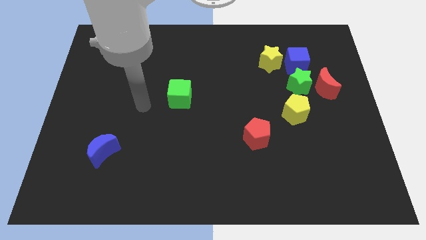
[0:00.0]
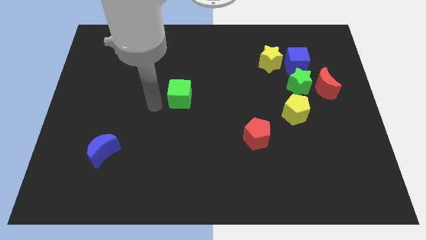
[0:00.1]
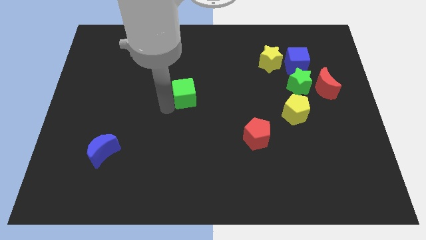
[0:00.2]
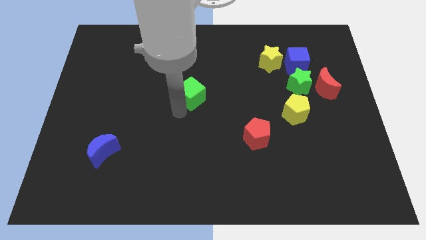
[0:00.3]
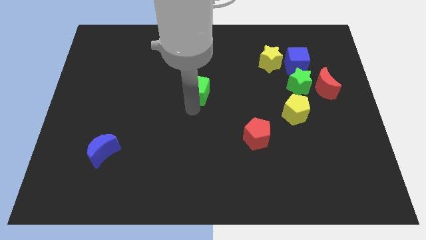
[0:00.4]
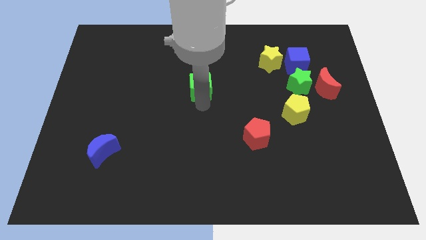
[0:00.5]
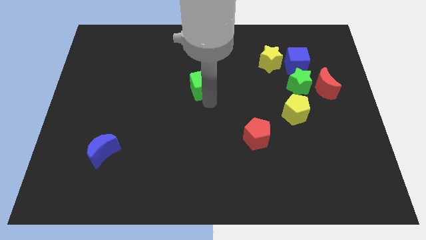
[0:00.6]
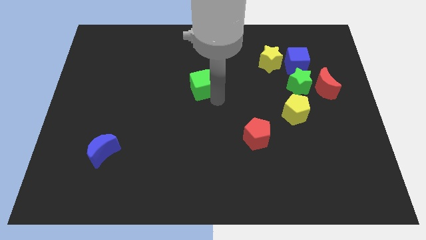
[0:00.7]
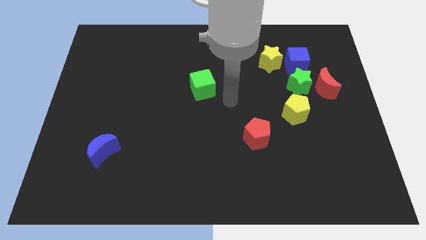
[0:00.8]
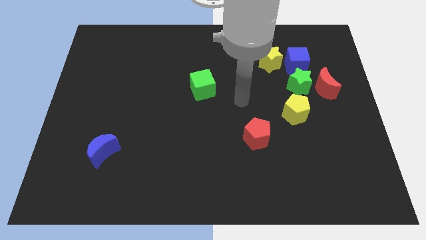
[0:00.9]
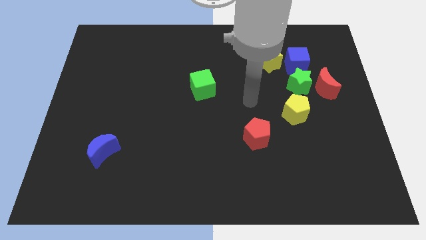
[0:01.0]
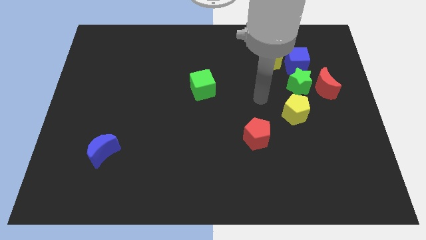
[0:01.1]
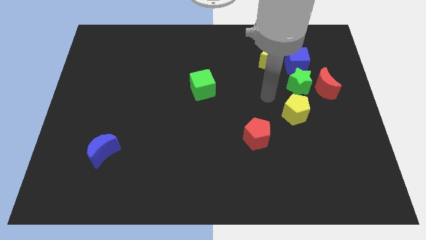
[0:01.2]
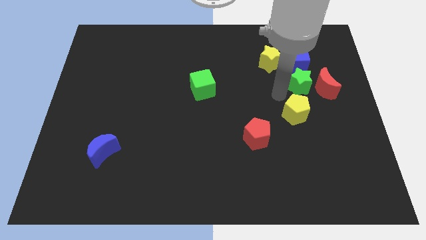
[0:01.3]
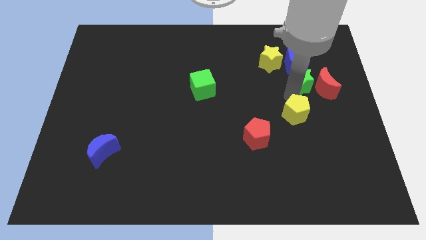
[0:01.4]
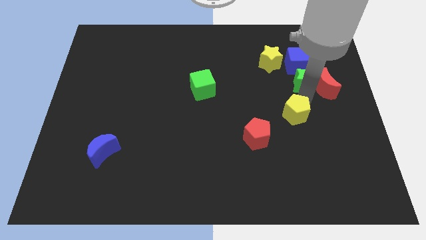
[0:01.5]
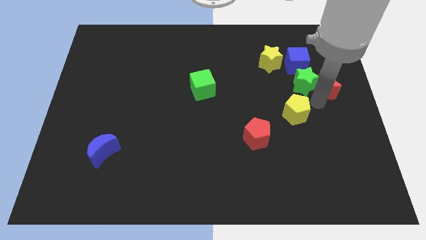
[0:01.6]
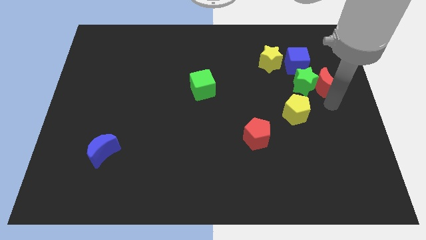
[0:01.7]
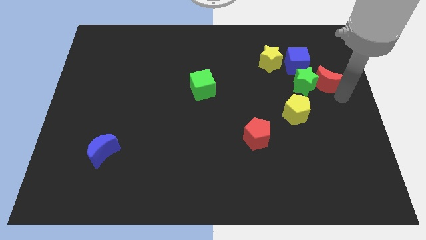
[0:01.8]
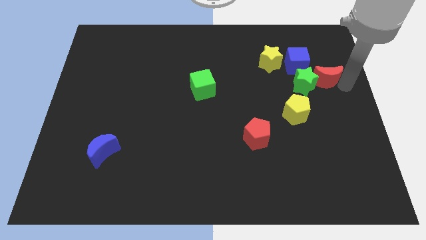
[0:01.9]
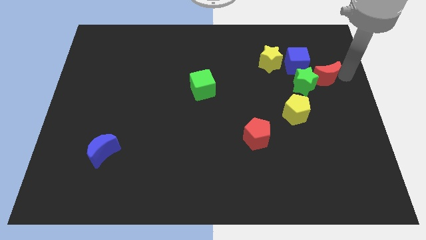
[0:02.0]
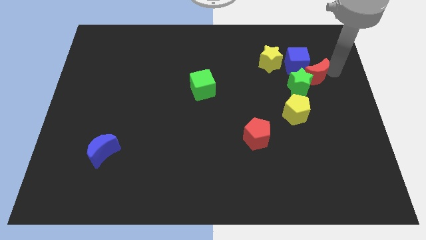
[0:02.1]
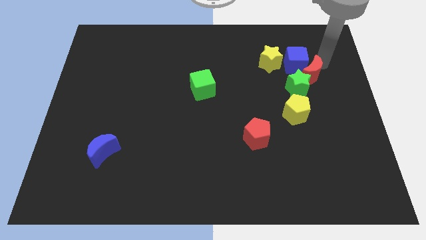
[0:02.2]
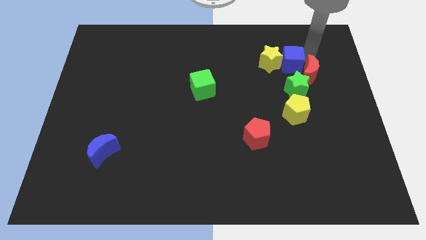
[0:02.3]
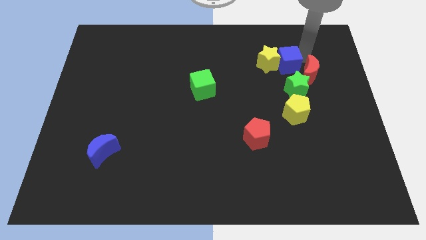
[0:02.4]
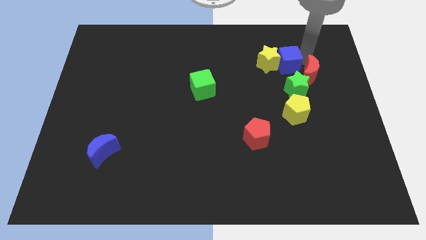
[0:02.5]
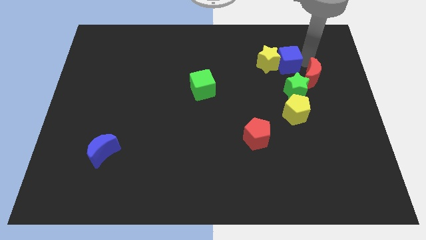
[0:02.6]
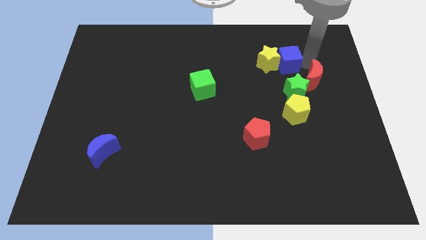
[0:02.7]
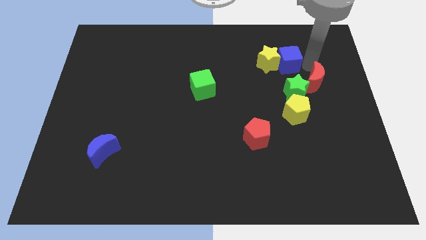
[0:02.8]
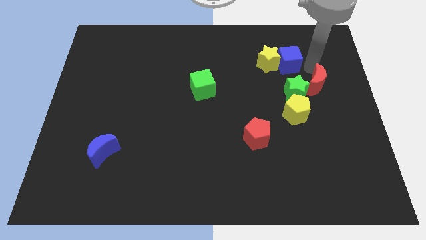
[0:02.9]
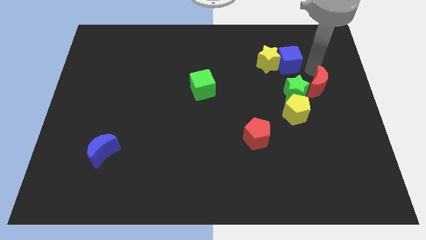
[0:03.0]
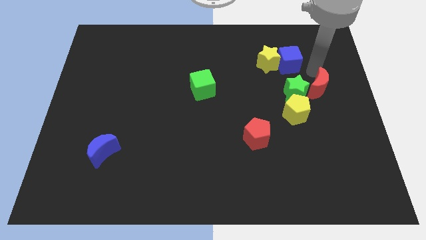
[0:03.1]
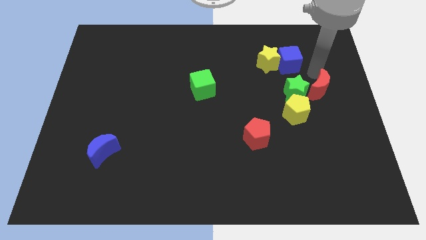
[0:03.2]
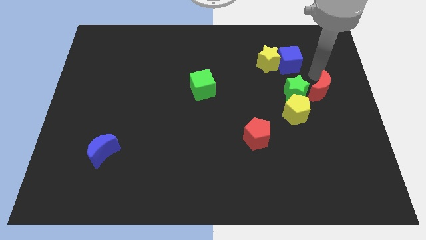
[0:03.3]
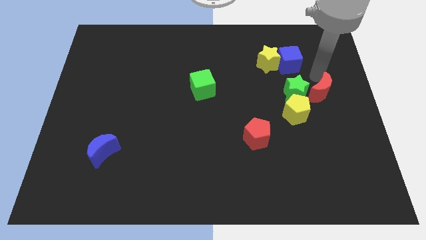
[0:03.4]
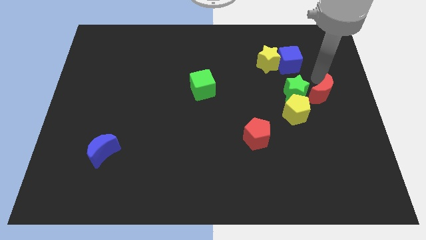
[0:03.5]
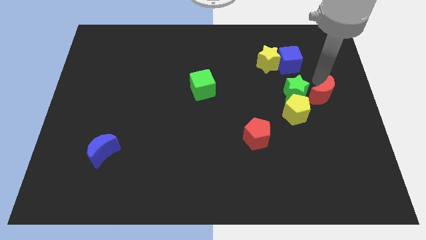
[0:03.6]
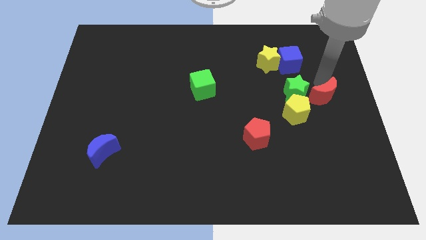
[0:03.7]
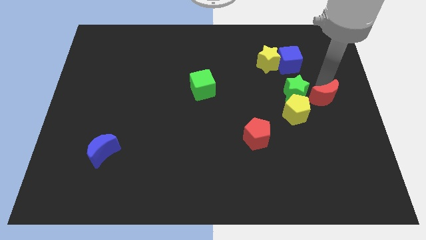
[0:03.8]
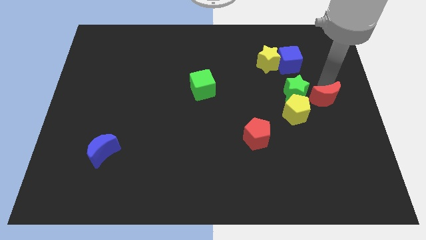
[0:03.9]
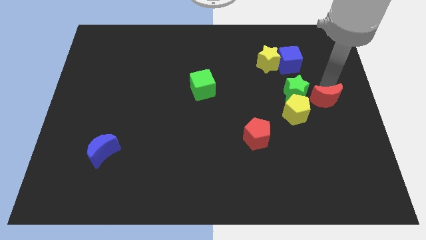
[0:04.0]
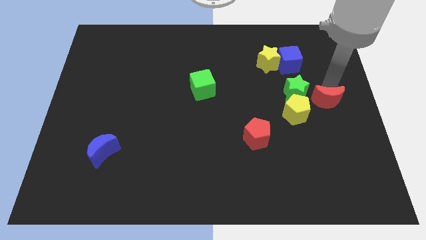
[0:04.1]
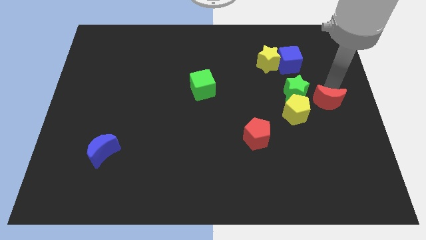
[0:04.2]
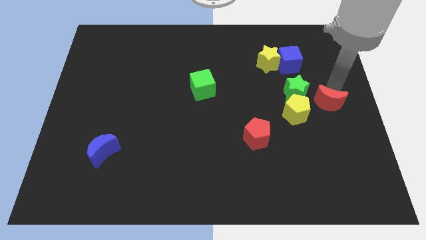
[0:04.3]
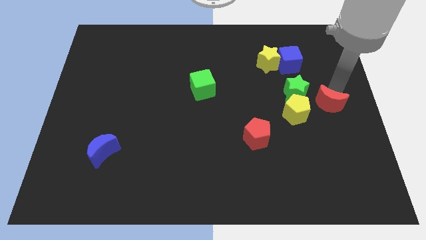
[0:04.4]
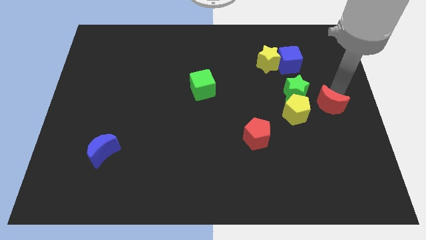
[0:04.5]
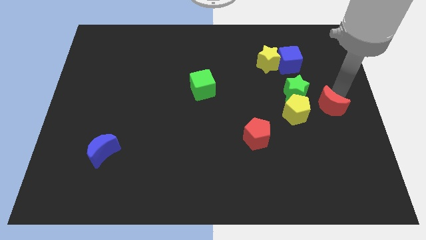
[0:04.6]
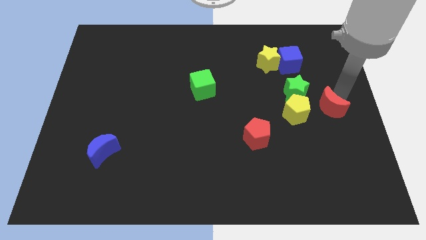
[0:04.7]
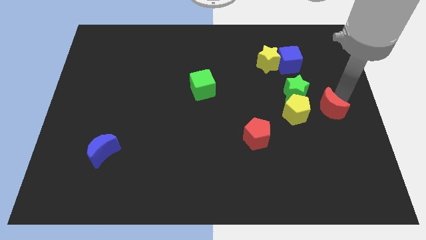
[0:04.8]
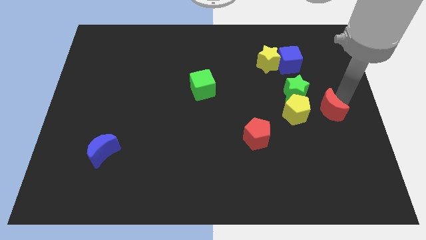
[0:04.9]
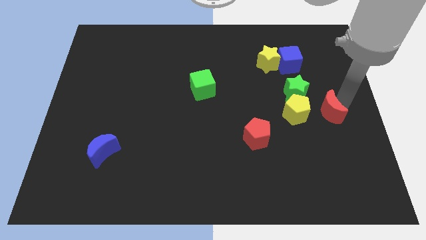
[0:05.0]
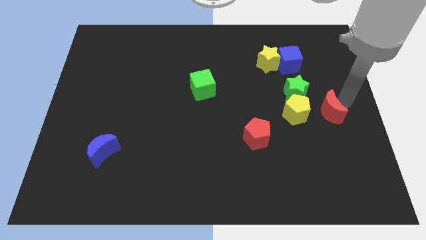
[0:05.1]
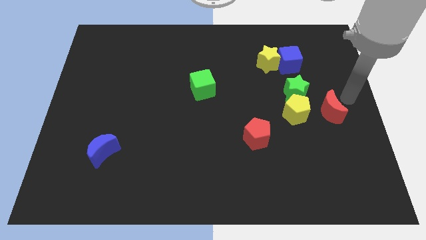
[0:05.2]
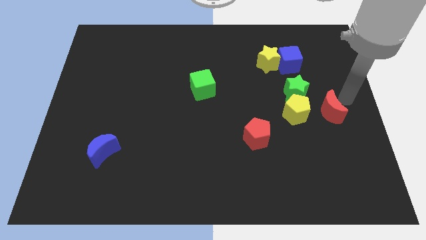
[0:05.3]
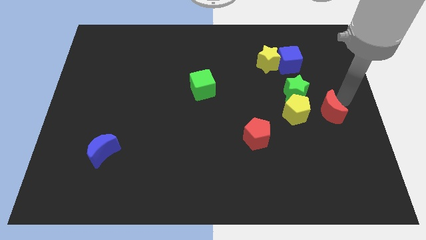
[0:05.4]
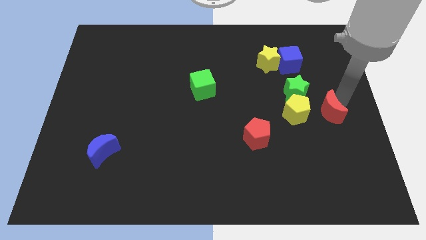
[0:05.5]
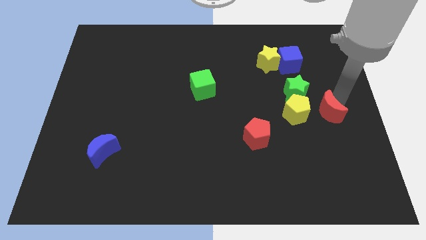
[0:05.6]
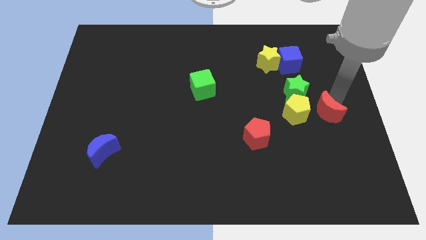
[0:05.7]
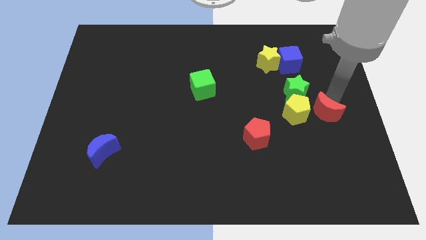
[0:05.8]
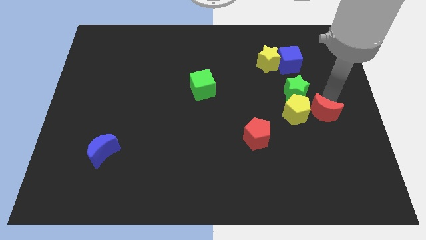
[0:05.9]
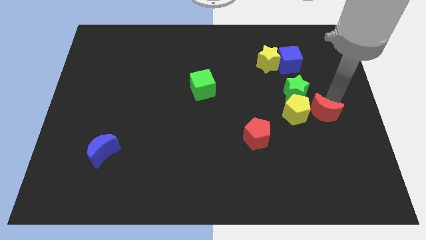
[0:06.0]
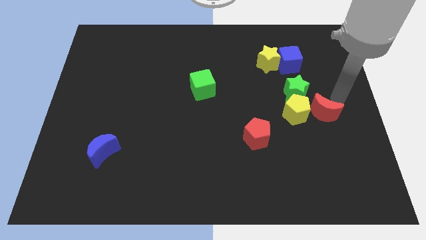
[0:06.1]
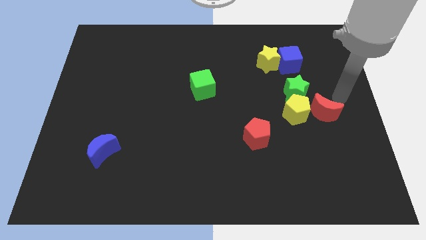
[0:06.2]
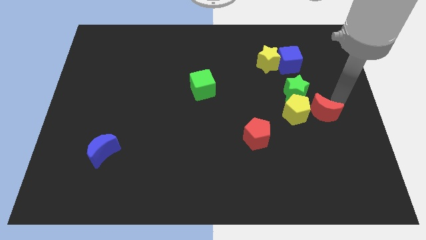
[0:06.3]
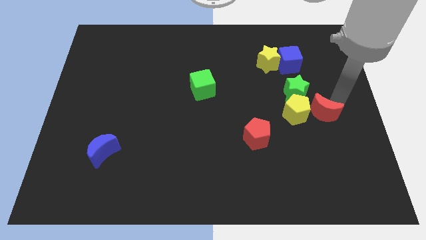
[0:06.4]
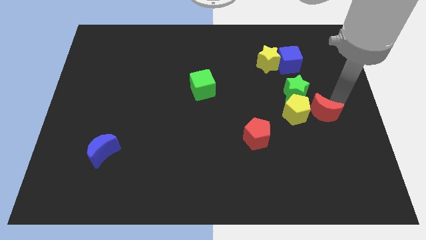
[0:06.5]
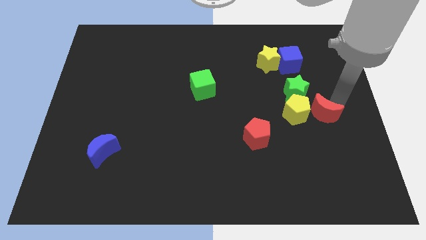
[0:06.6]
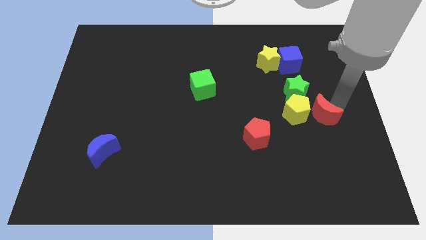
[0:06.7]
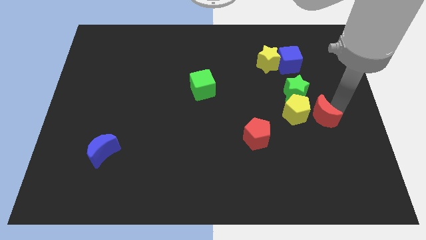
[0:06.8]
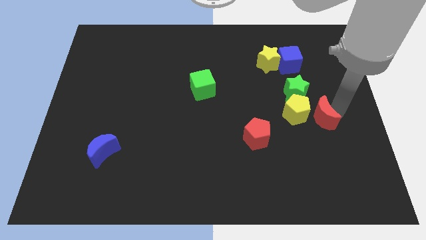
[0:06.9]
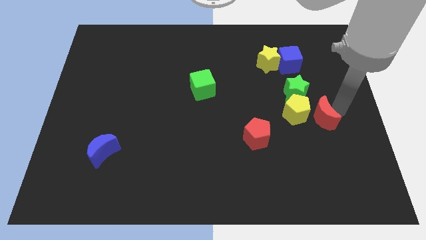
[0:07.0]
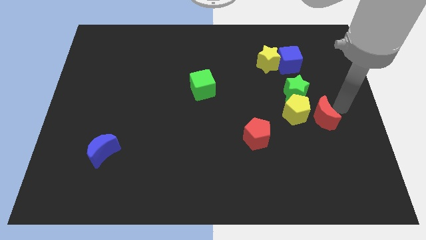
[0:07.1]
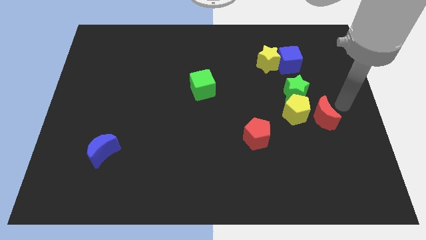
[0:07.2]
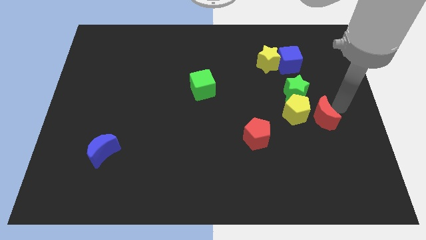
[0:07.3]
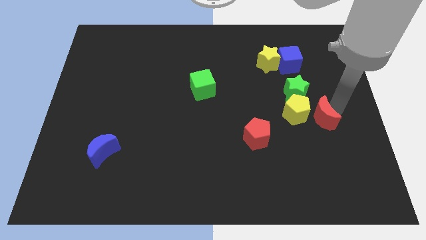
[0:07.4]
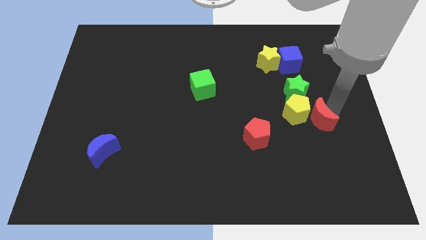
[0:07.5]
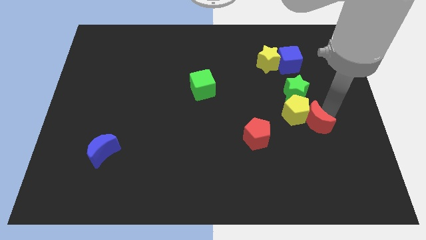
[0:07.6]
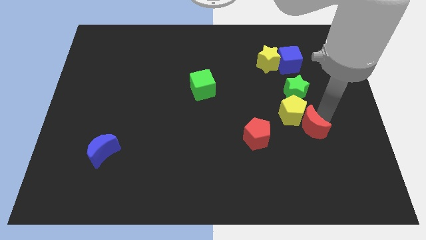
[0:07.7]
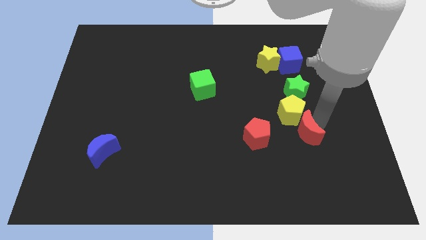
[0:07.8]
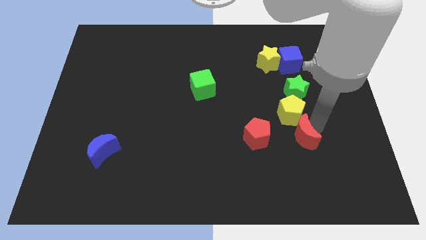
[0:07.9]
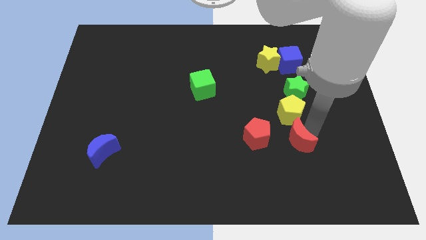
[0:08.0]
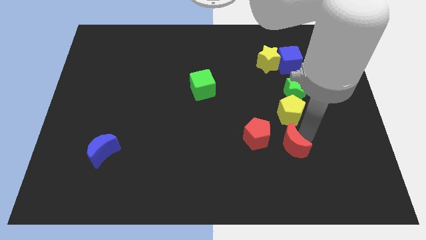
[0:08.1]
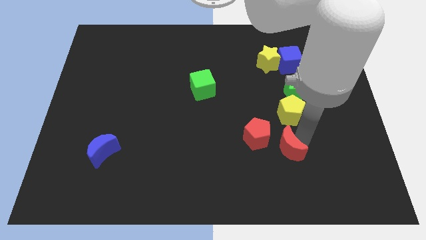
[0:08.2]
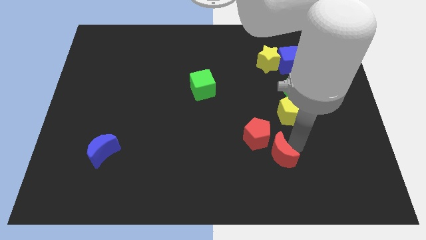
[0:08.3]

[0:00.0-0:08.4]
push the red moon down and left
